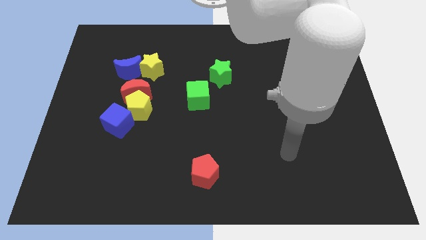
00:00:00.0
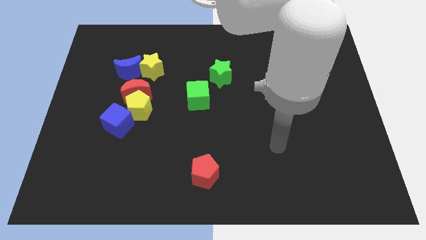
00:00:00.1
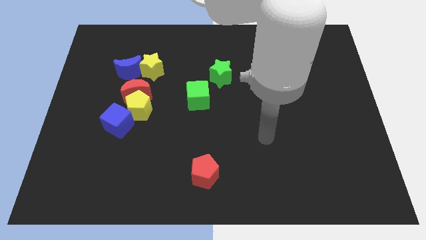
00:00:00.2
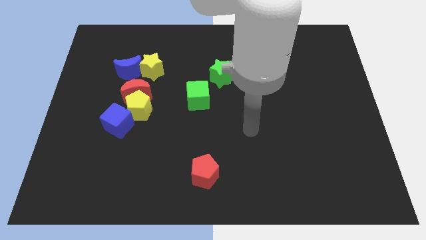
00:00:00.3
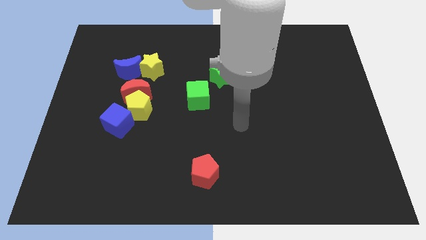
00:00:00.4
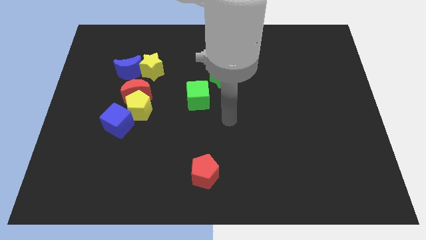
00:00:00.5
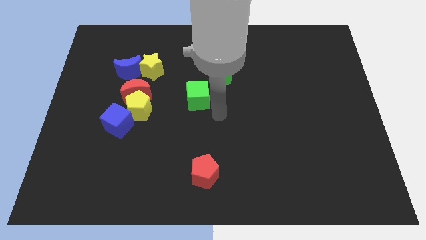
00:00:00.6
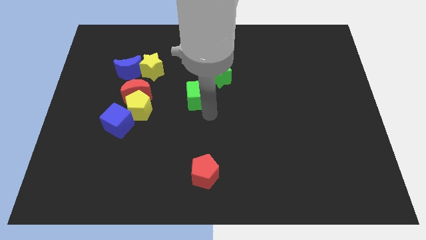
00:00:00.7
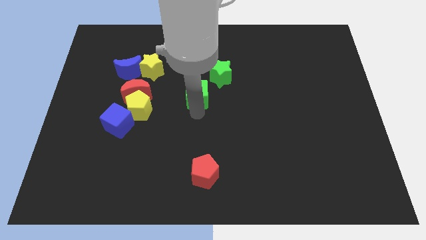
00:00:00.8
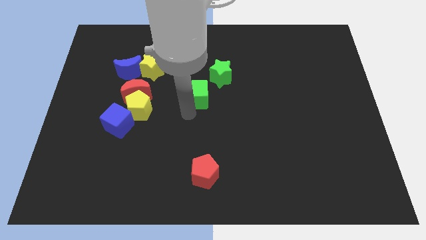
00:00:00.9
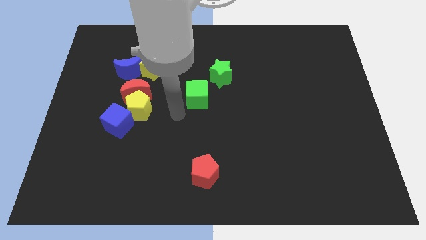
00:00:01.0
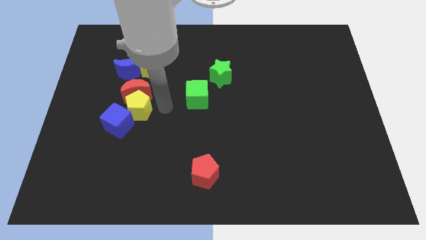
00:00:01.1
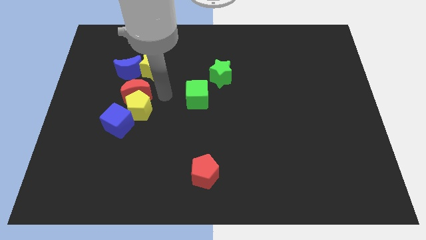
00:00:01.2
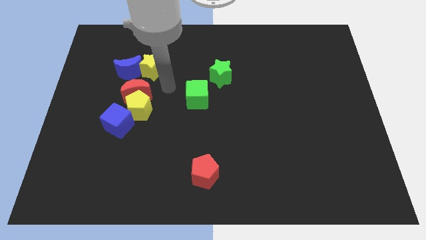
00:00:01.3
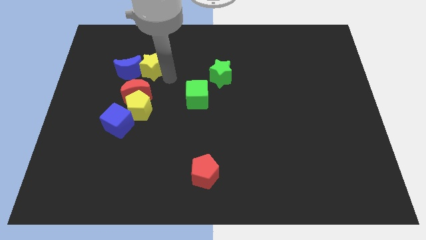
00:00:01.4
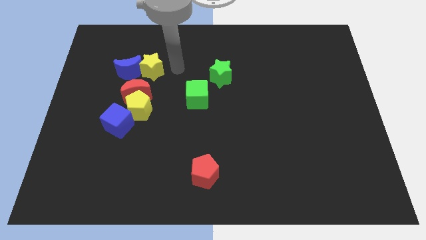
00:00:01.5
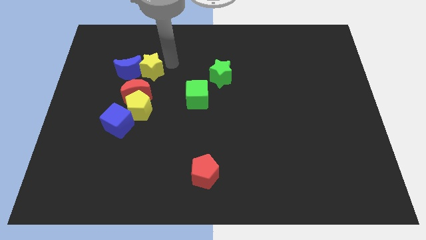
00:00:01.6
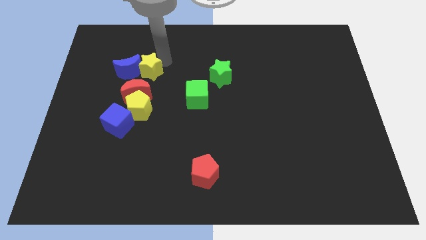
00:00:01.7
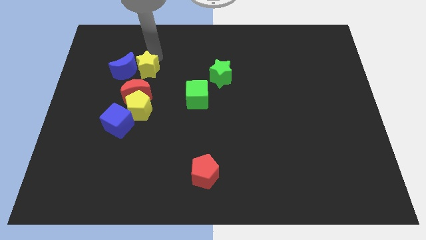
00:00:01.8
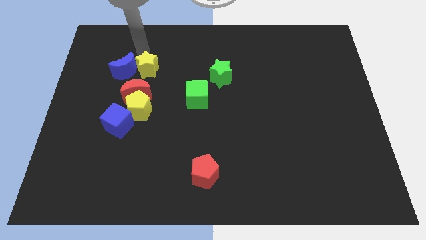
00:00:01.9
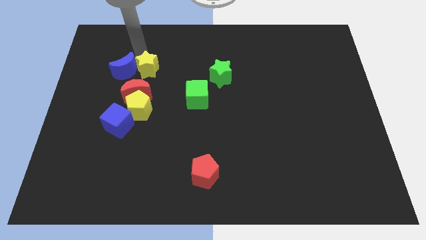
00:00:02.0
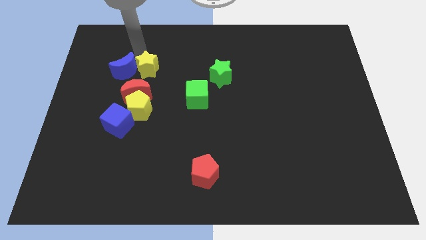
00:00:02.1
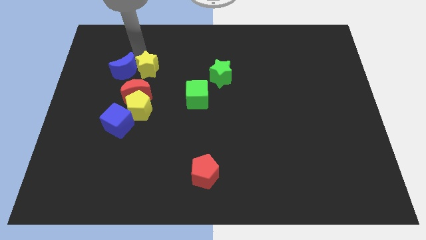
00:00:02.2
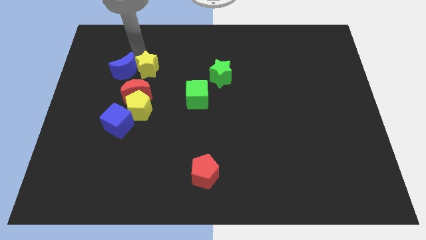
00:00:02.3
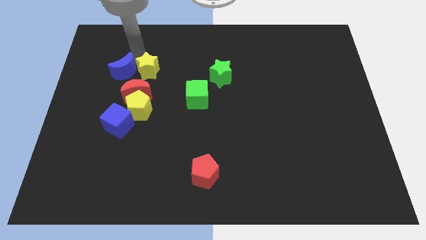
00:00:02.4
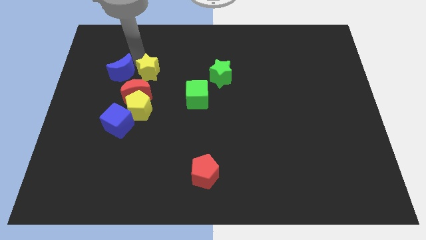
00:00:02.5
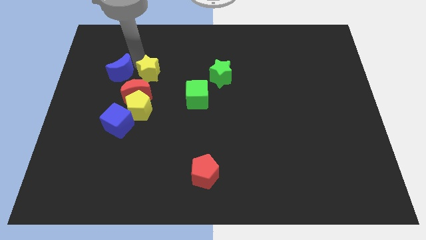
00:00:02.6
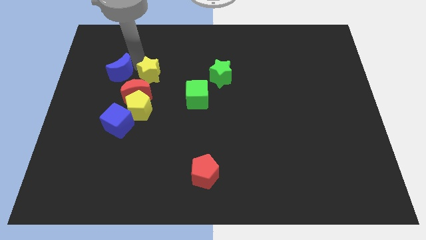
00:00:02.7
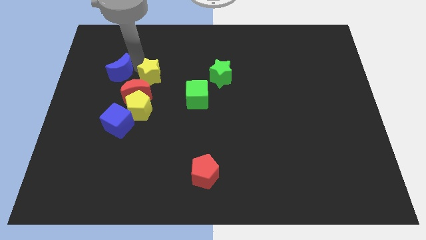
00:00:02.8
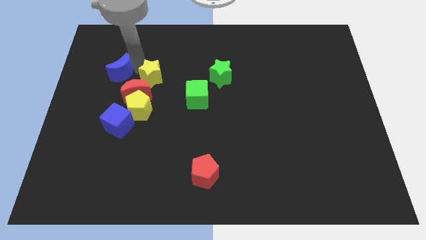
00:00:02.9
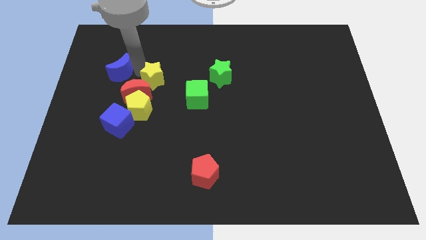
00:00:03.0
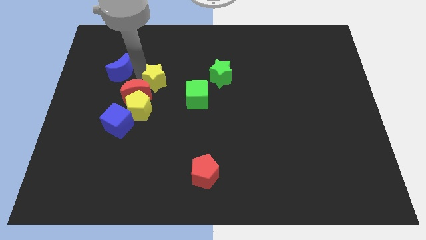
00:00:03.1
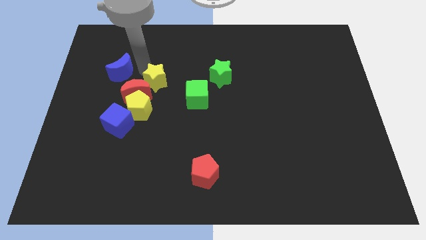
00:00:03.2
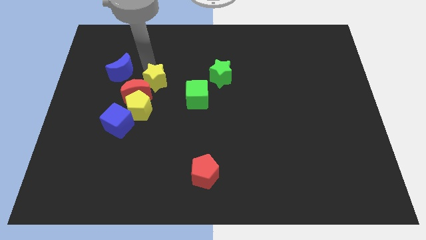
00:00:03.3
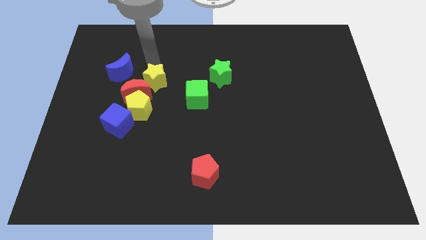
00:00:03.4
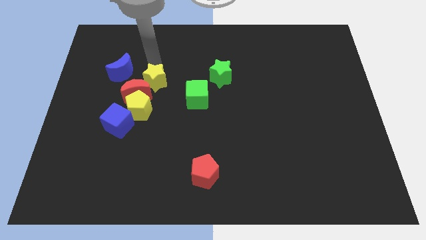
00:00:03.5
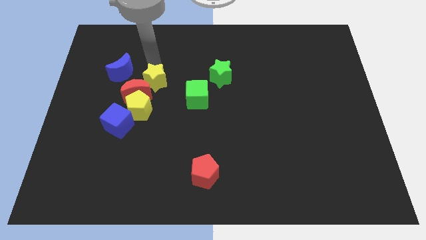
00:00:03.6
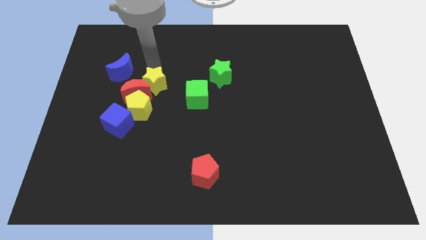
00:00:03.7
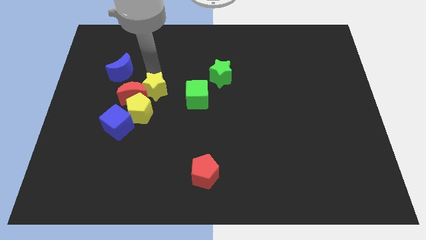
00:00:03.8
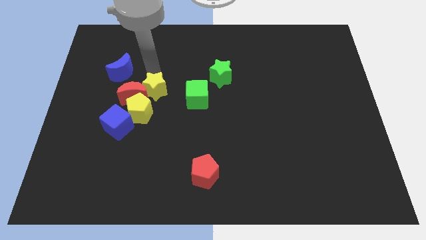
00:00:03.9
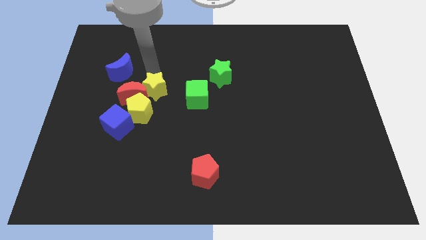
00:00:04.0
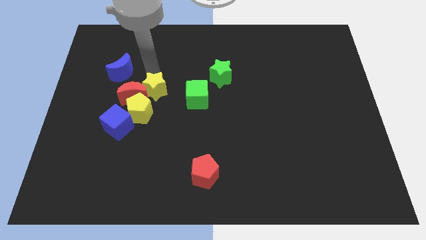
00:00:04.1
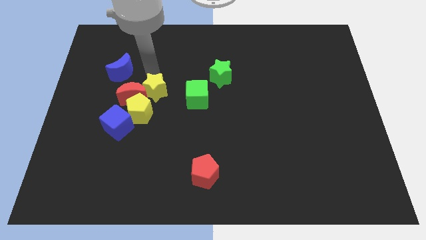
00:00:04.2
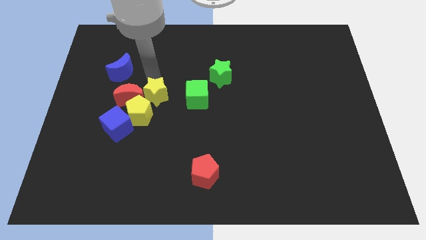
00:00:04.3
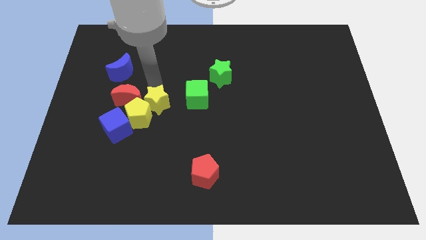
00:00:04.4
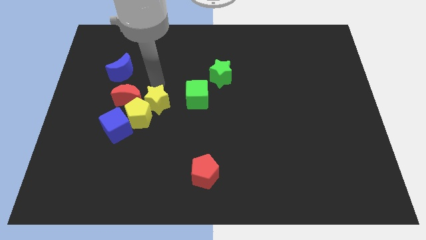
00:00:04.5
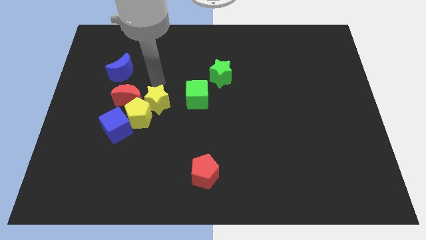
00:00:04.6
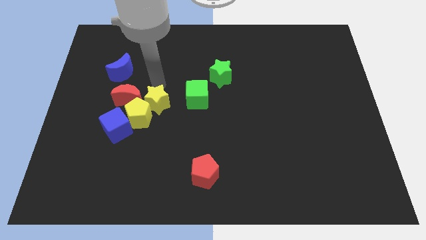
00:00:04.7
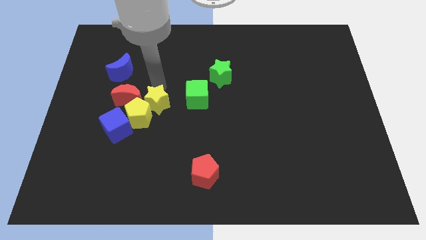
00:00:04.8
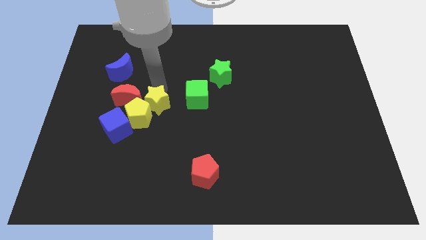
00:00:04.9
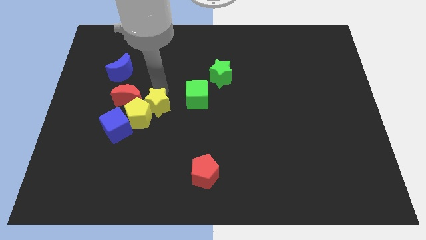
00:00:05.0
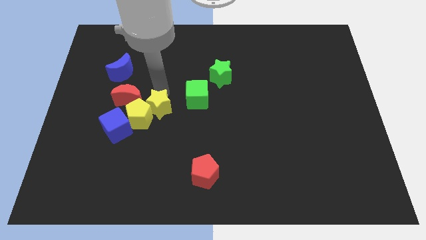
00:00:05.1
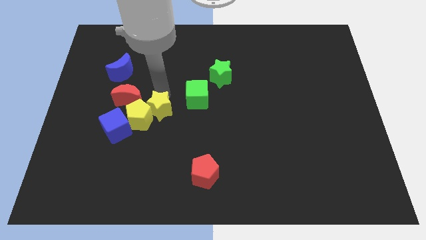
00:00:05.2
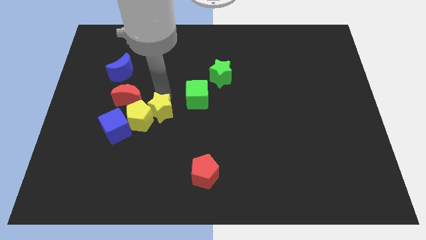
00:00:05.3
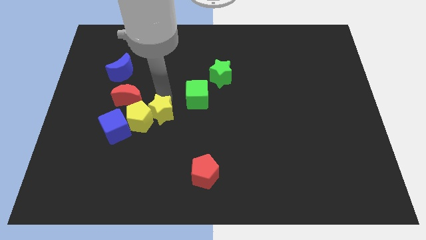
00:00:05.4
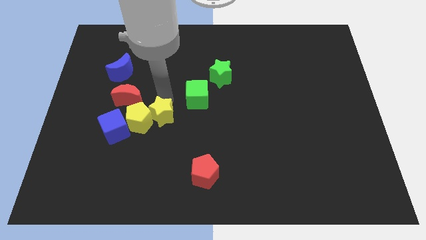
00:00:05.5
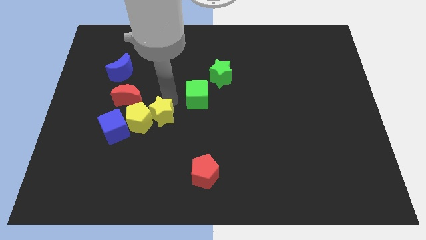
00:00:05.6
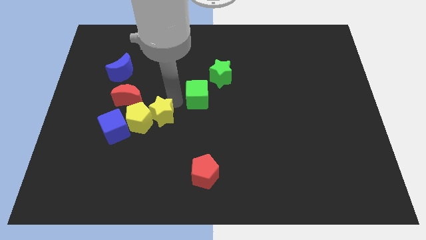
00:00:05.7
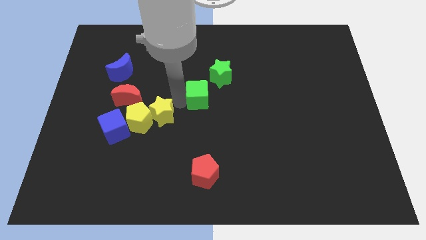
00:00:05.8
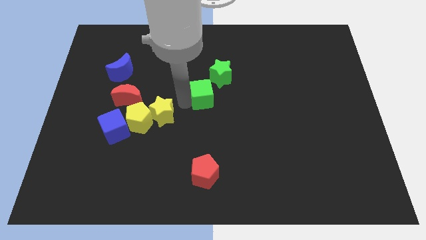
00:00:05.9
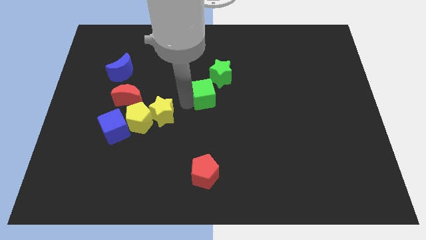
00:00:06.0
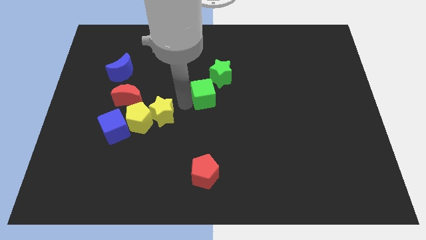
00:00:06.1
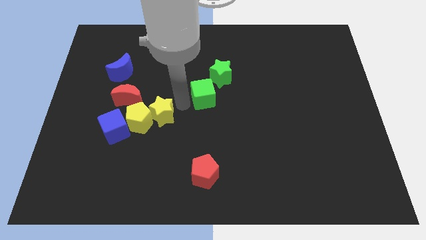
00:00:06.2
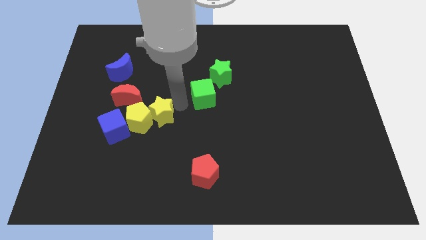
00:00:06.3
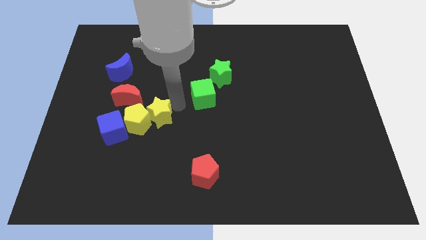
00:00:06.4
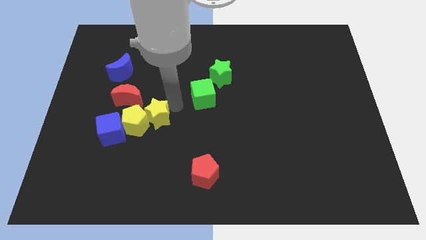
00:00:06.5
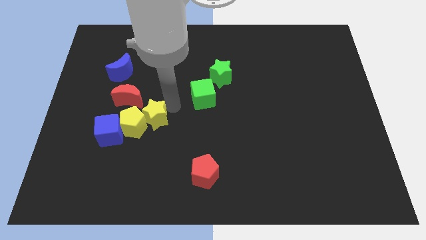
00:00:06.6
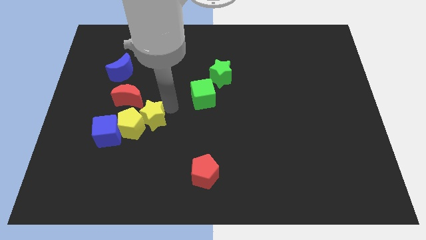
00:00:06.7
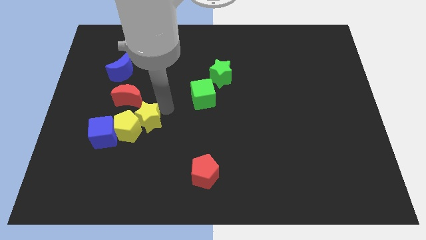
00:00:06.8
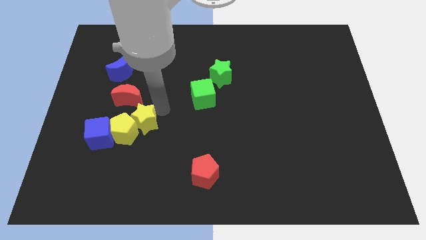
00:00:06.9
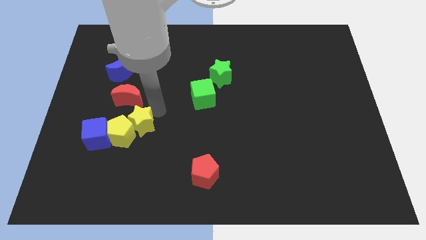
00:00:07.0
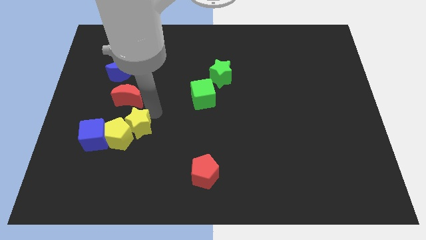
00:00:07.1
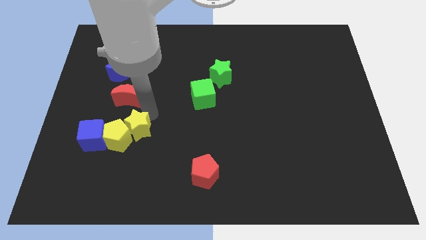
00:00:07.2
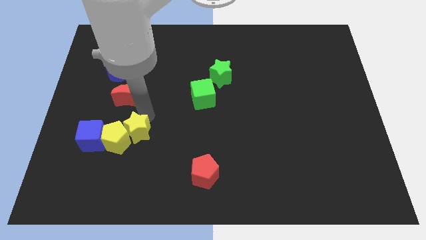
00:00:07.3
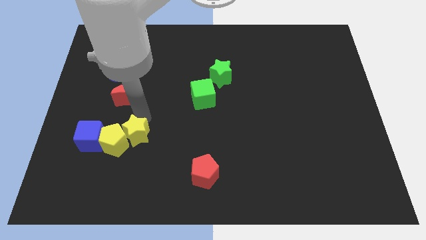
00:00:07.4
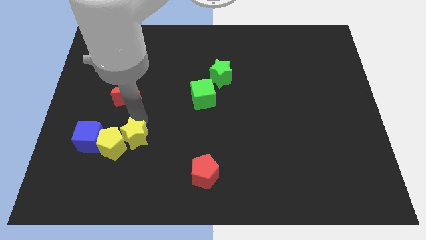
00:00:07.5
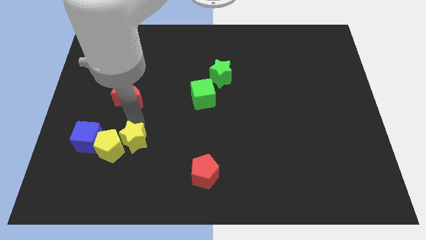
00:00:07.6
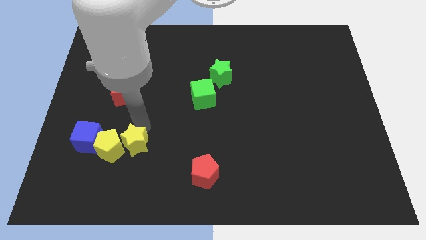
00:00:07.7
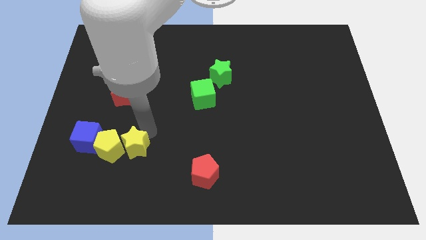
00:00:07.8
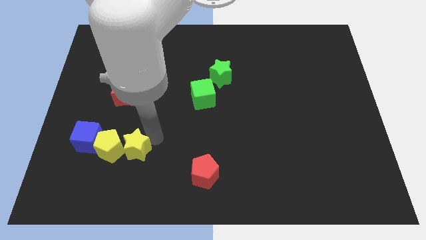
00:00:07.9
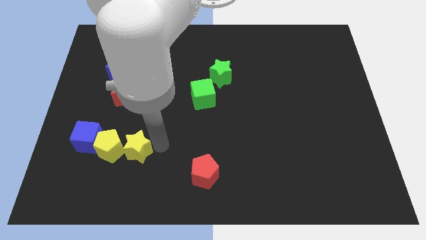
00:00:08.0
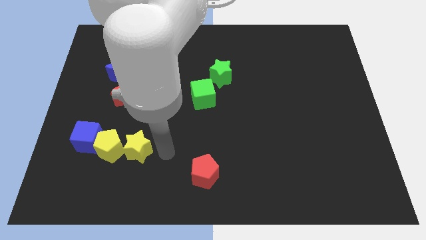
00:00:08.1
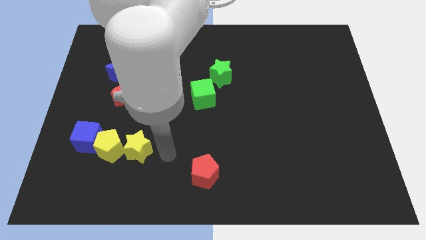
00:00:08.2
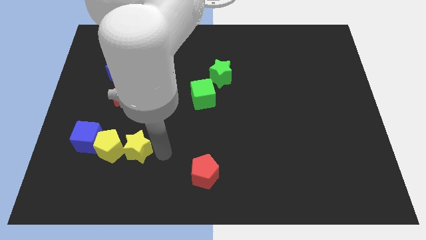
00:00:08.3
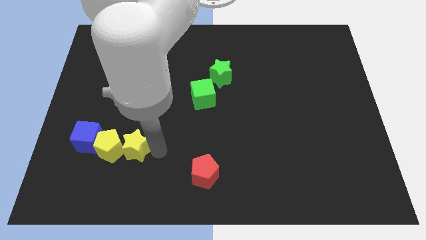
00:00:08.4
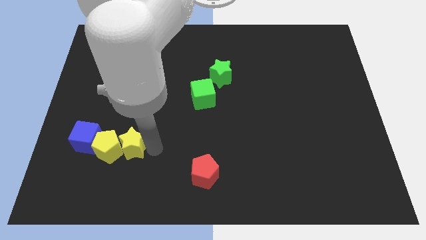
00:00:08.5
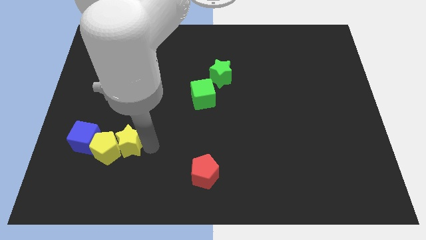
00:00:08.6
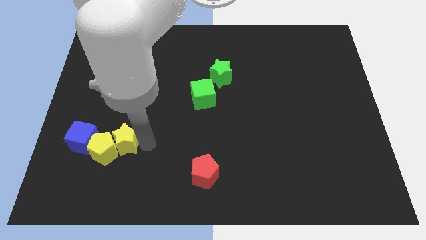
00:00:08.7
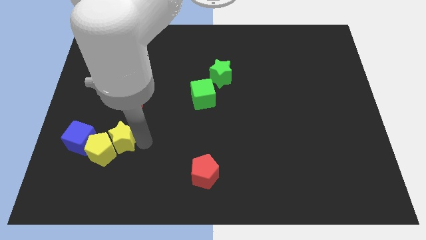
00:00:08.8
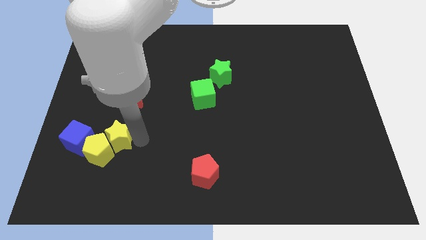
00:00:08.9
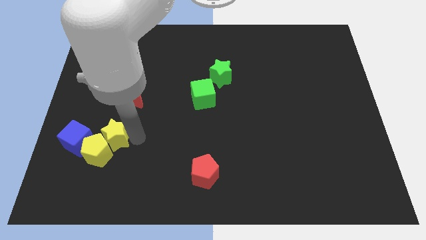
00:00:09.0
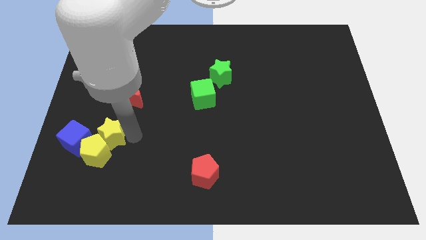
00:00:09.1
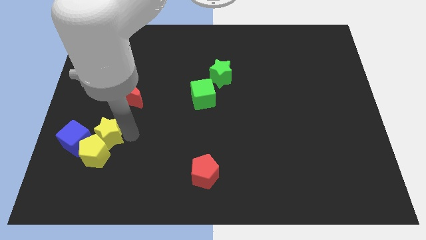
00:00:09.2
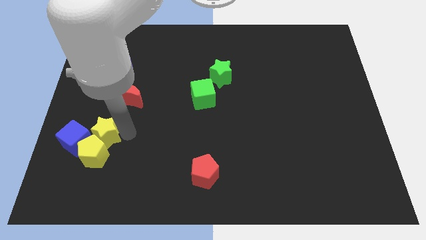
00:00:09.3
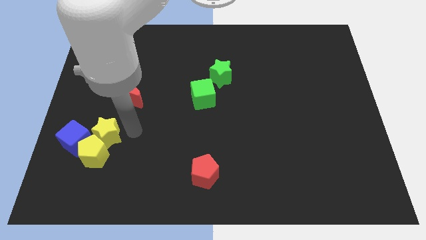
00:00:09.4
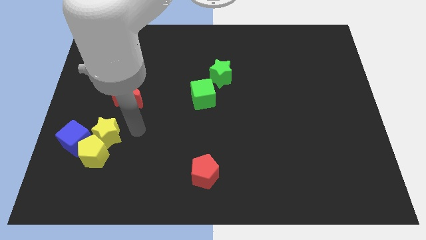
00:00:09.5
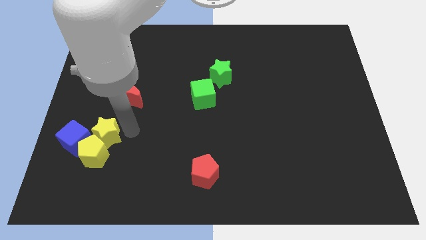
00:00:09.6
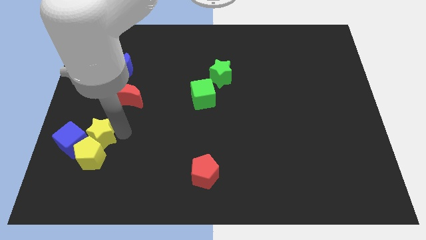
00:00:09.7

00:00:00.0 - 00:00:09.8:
slide the yellow star close to the blue cube
